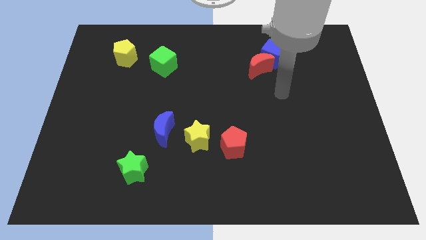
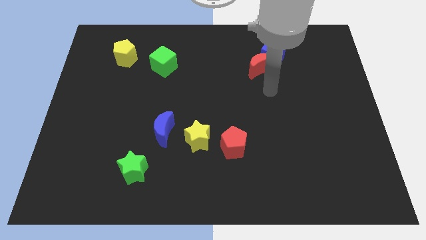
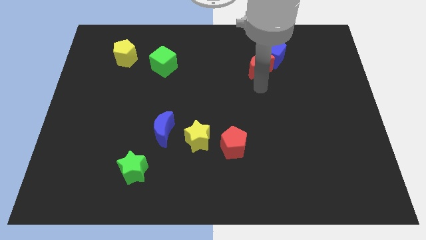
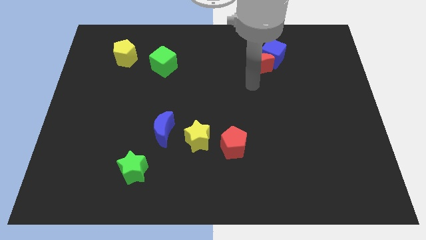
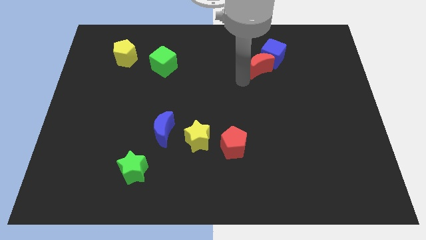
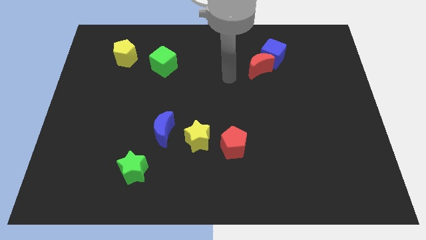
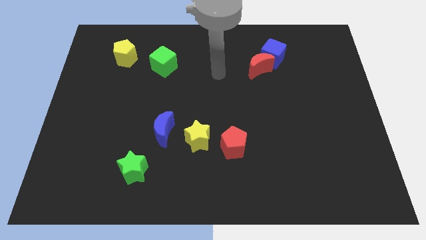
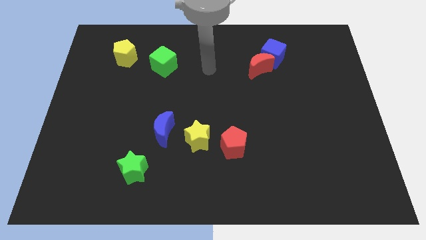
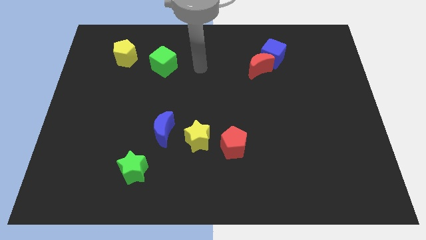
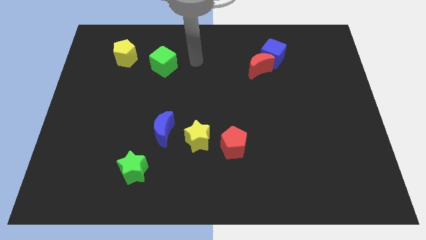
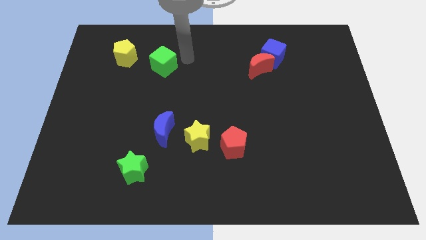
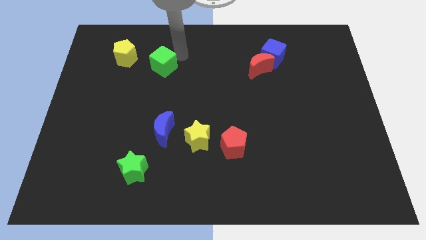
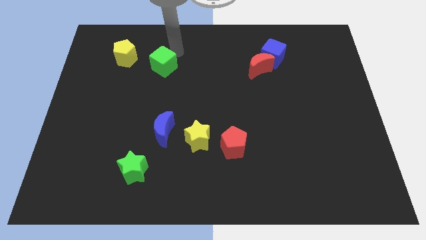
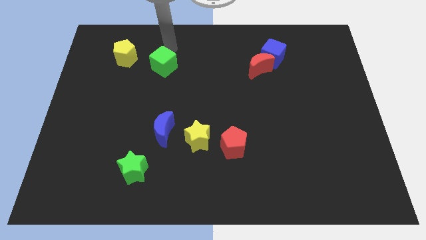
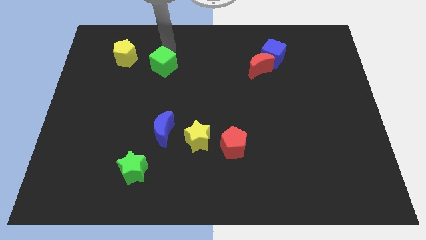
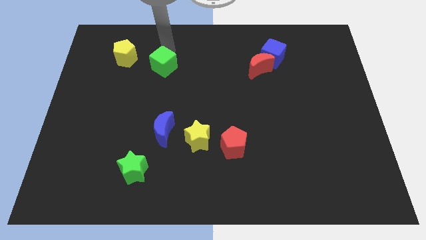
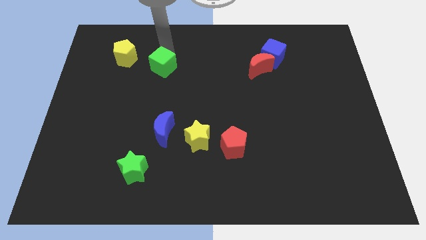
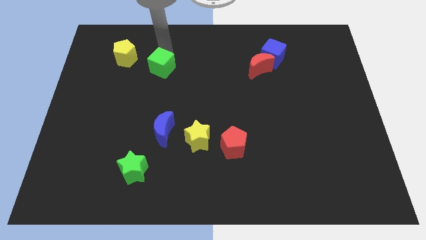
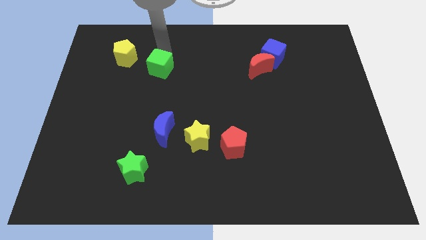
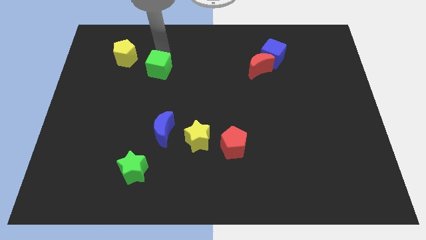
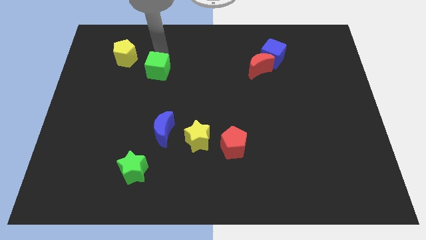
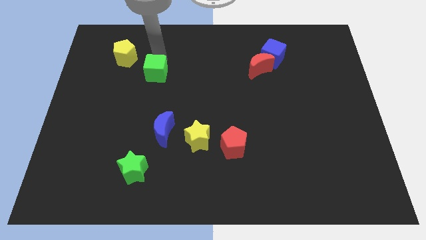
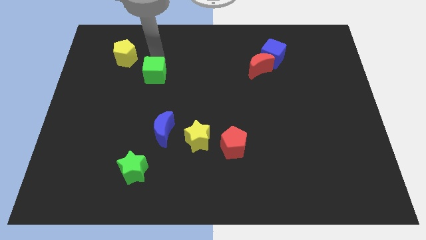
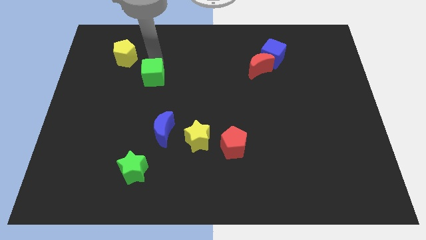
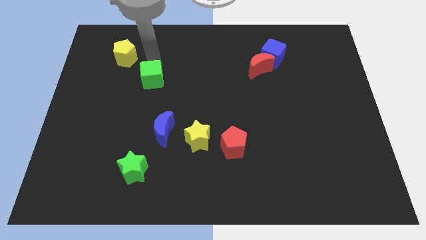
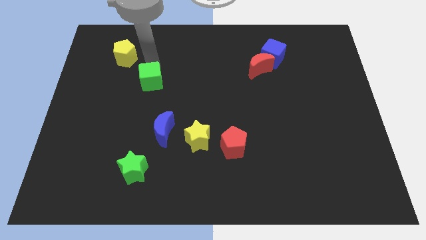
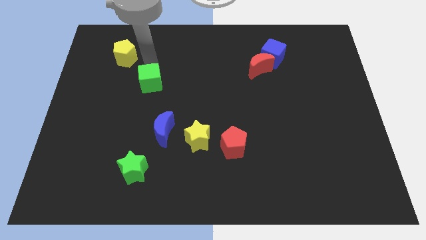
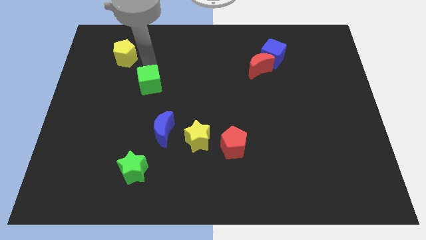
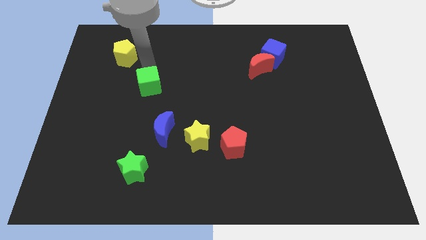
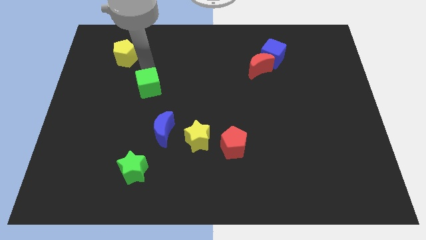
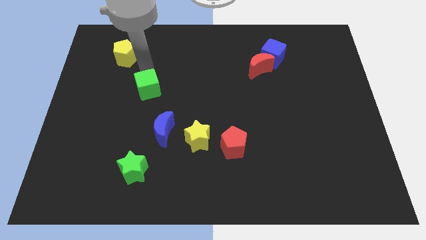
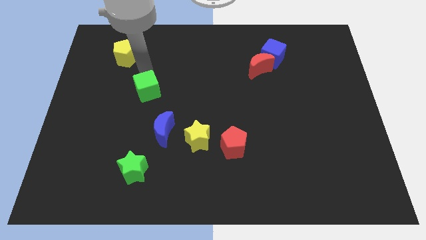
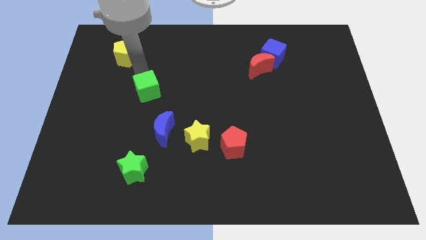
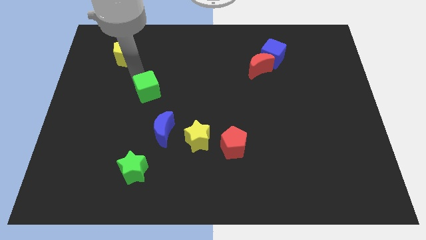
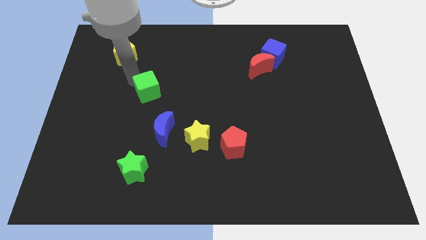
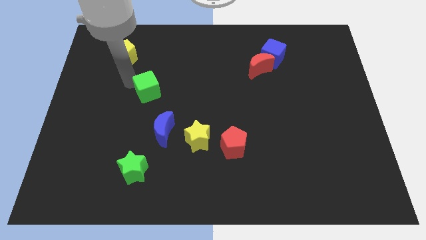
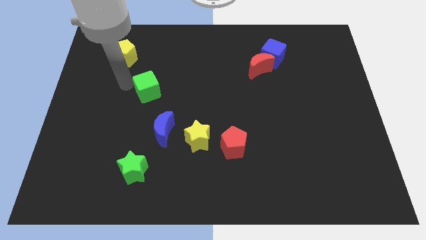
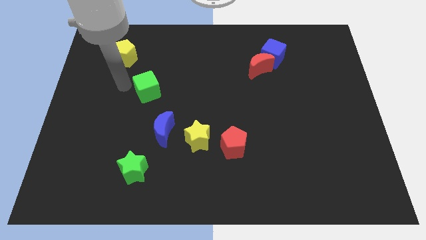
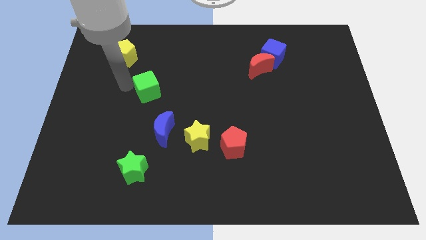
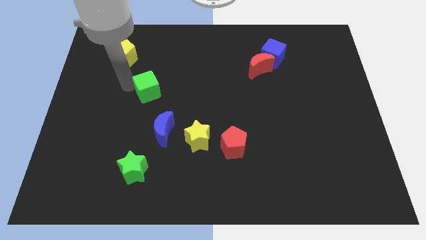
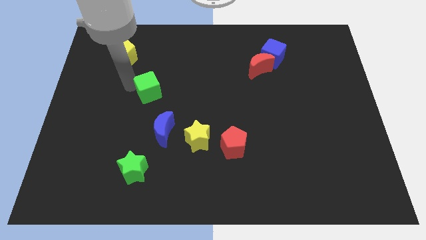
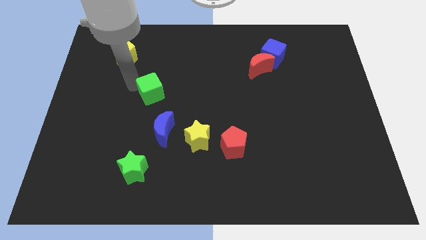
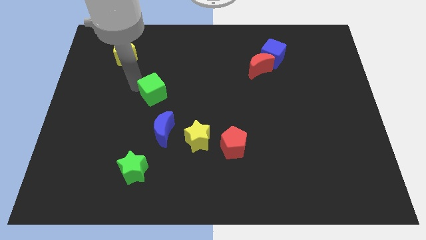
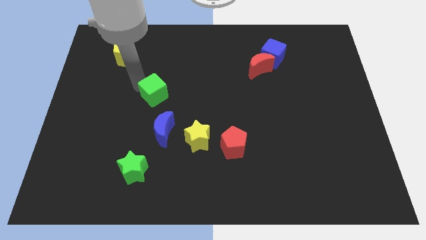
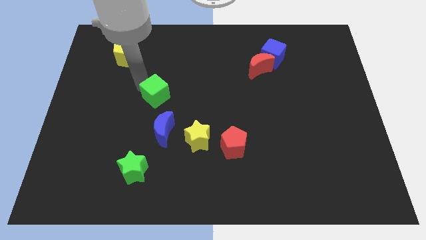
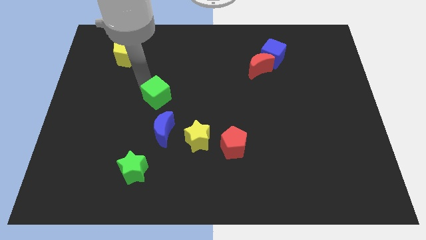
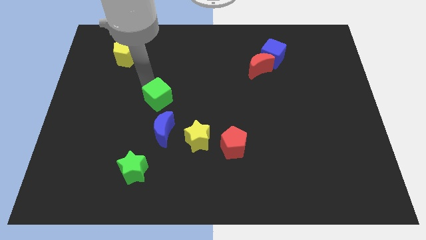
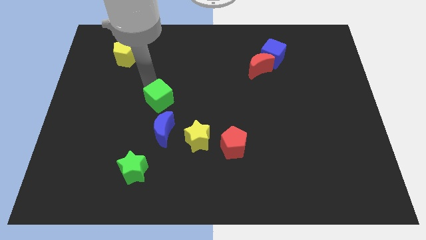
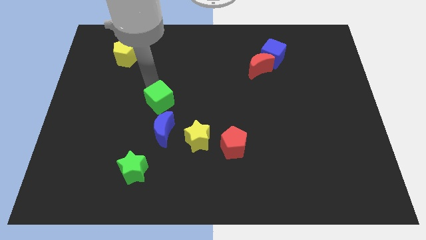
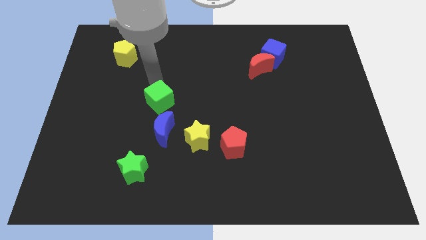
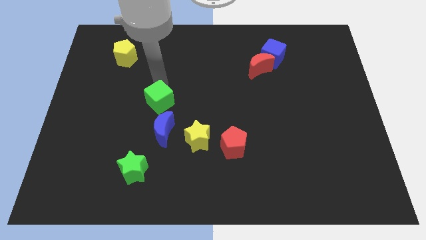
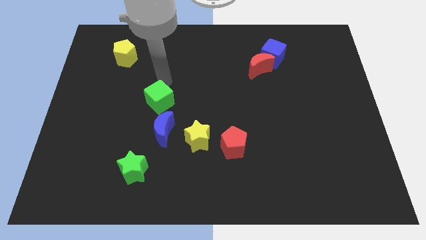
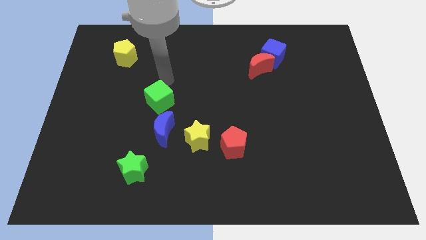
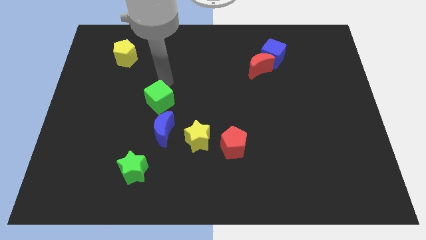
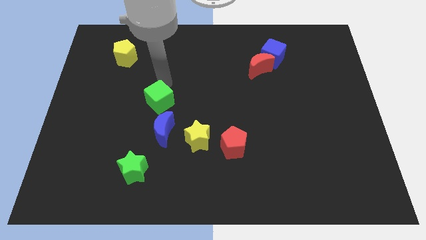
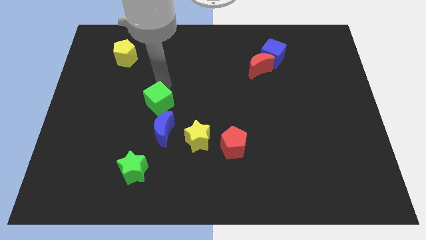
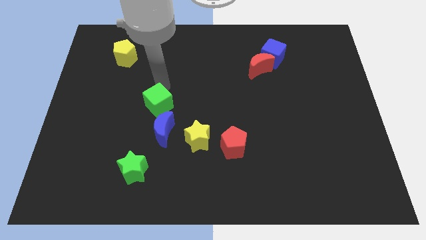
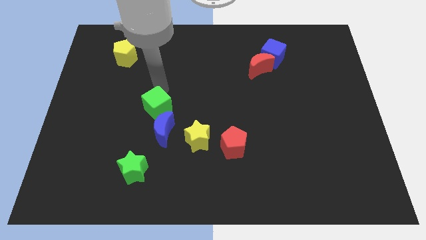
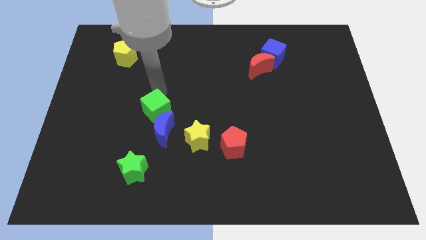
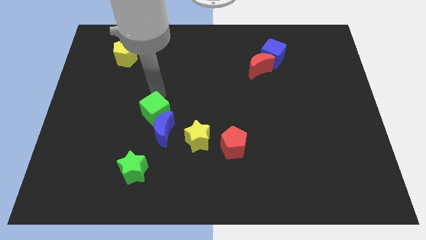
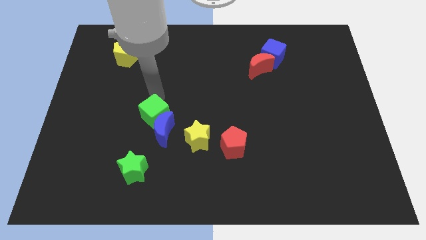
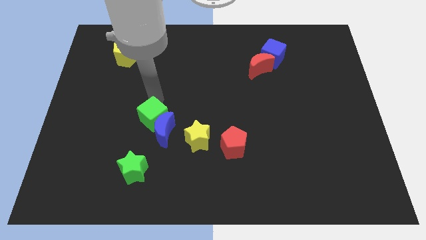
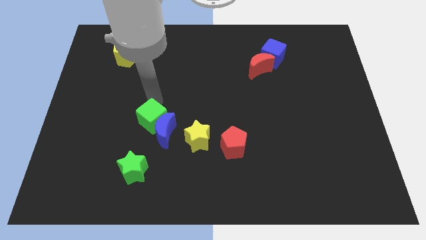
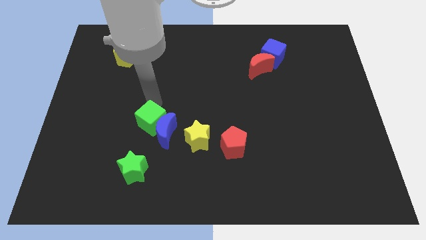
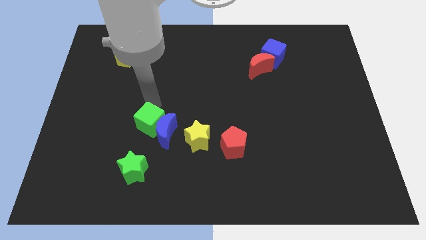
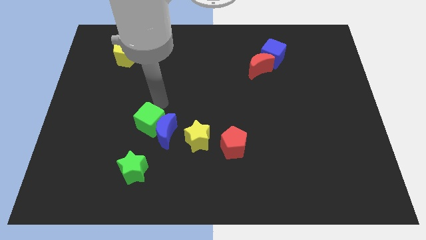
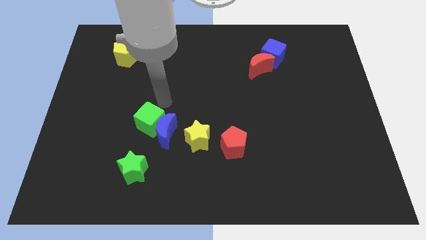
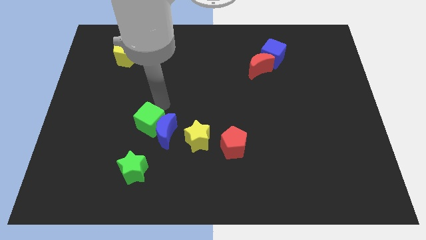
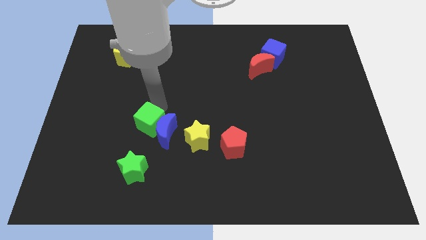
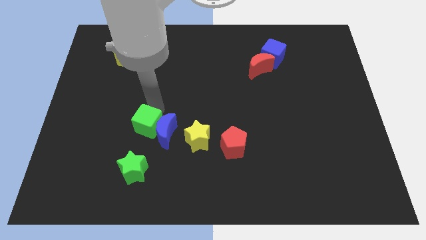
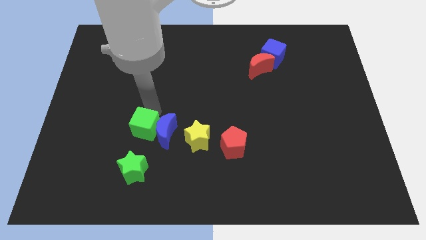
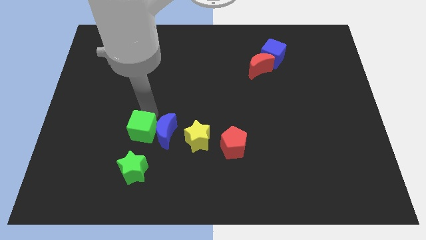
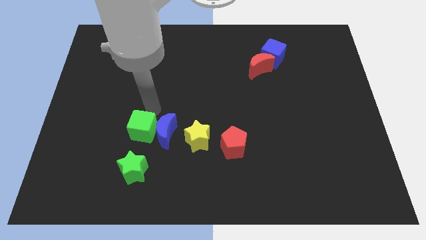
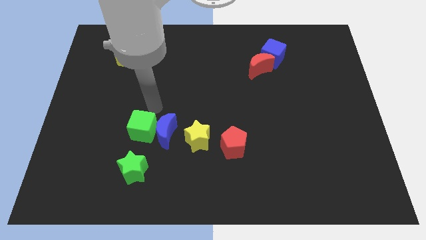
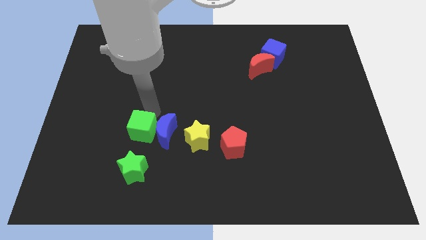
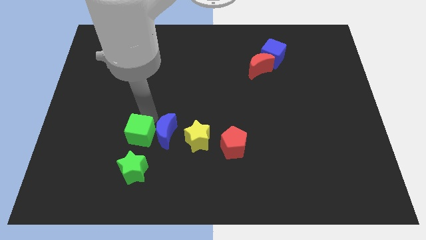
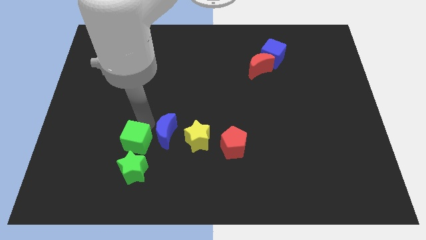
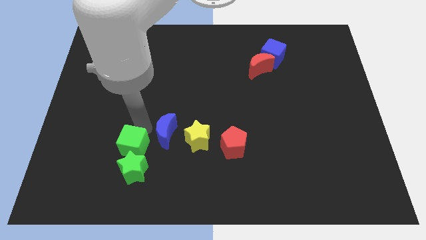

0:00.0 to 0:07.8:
push the green cube next to the green star
